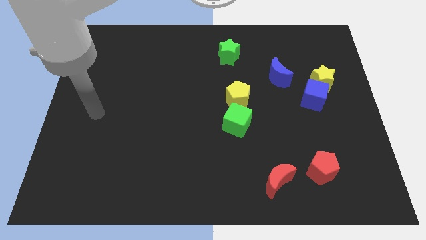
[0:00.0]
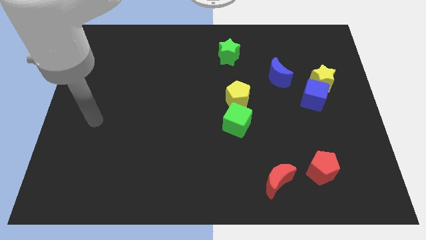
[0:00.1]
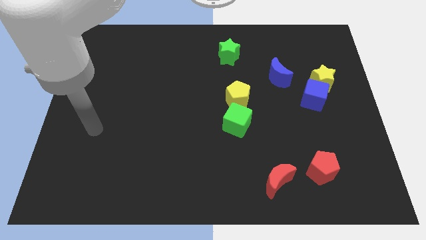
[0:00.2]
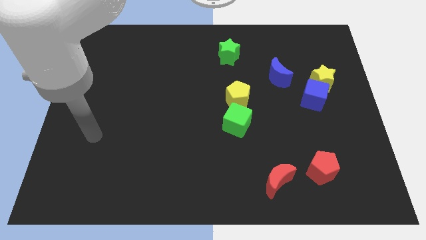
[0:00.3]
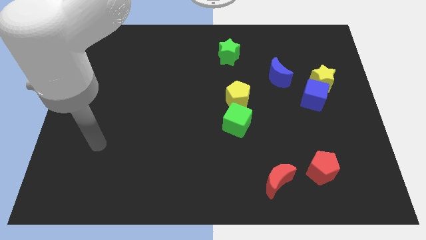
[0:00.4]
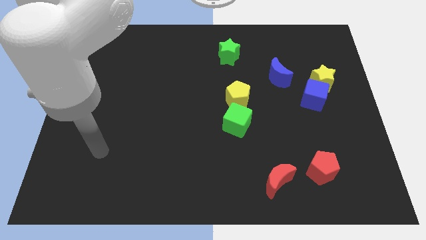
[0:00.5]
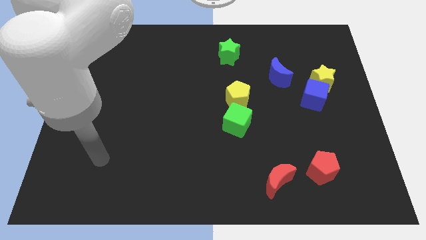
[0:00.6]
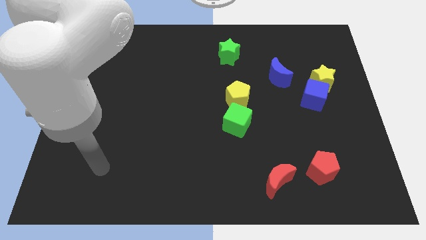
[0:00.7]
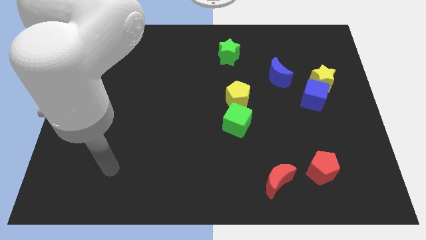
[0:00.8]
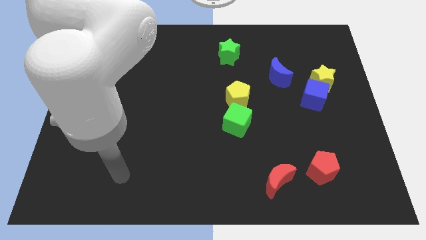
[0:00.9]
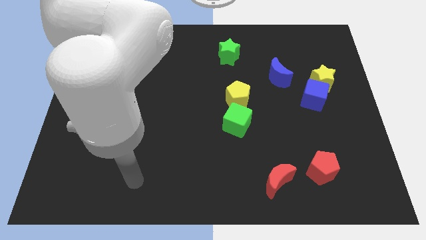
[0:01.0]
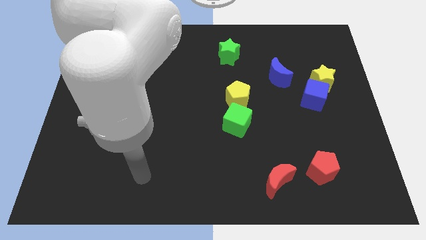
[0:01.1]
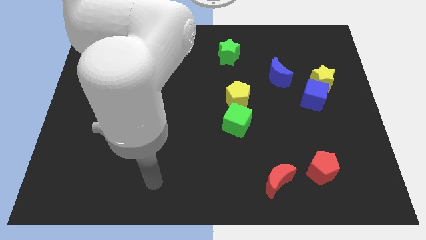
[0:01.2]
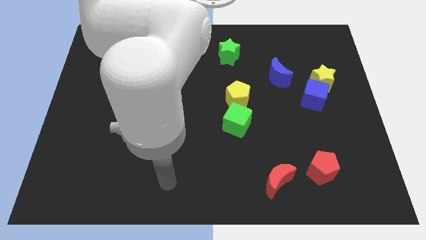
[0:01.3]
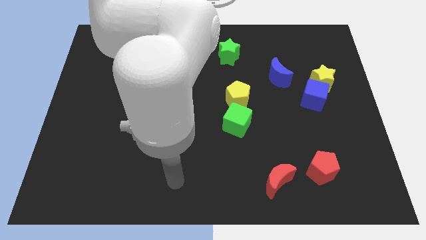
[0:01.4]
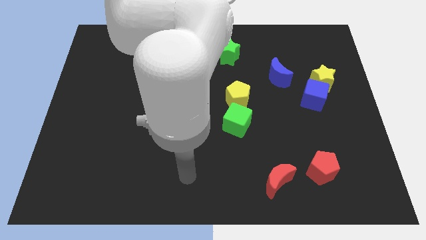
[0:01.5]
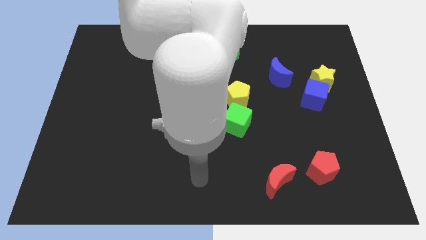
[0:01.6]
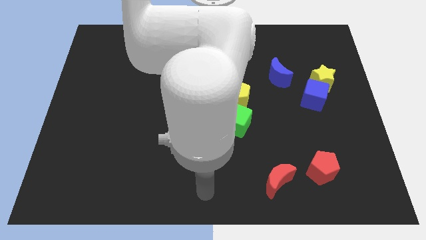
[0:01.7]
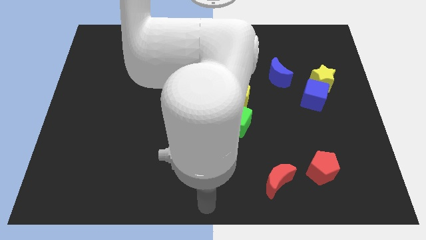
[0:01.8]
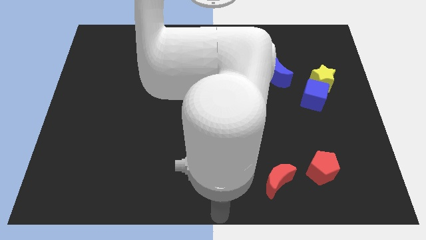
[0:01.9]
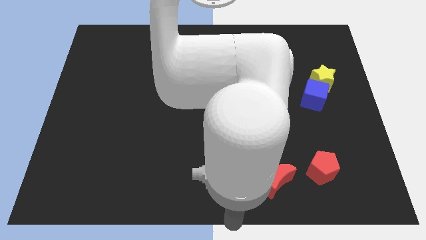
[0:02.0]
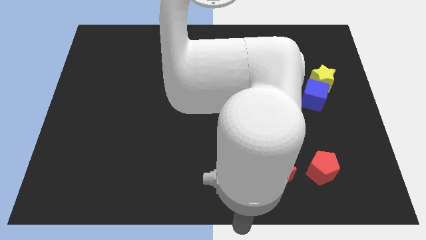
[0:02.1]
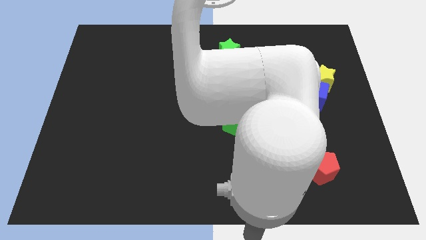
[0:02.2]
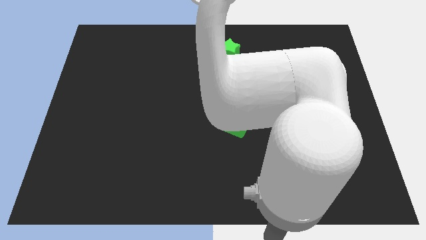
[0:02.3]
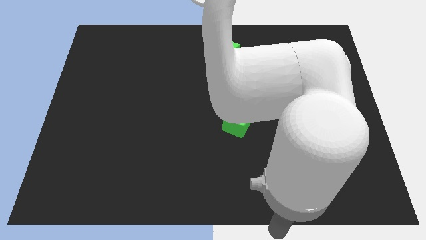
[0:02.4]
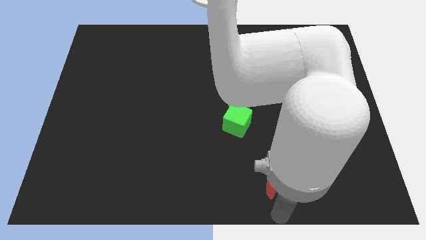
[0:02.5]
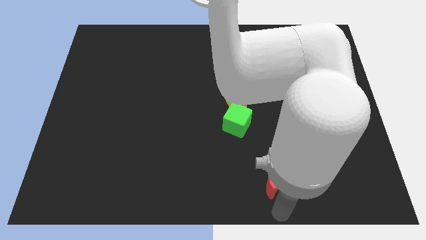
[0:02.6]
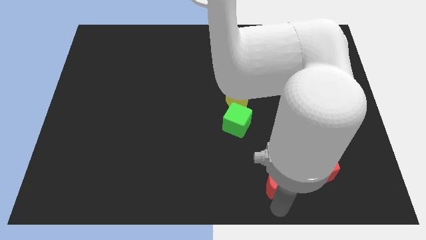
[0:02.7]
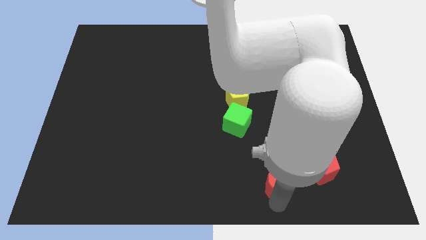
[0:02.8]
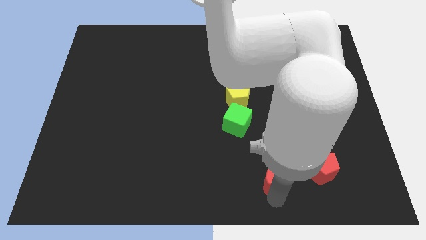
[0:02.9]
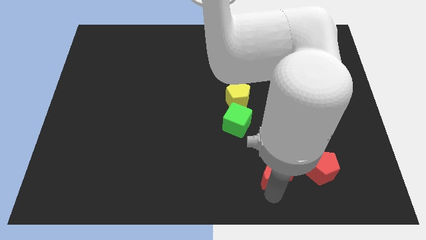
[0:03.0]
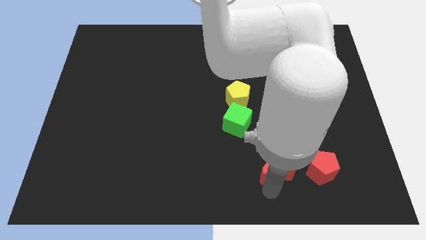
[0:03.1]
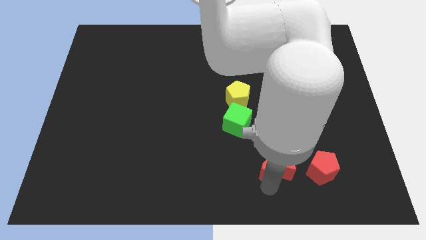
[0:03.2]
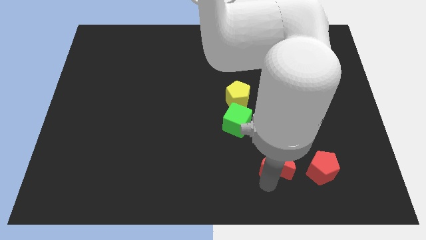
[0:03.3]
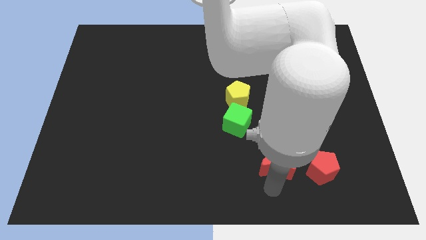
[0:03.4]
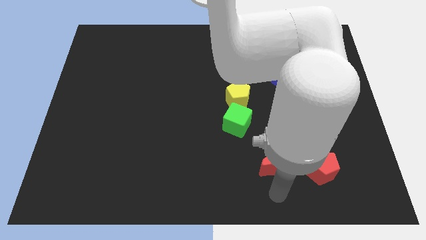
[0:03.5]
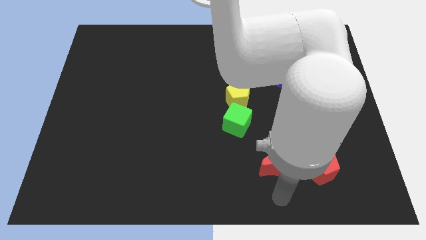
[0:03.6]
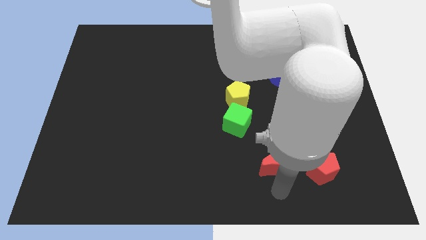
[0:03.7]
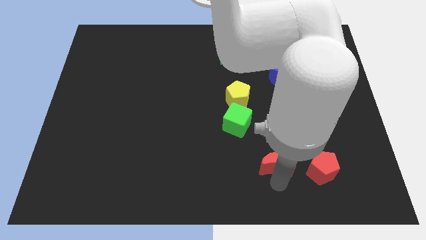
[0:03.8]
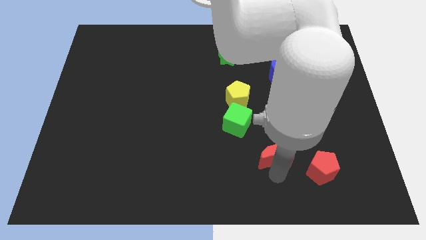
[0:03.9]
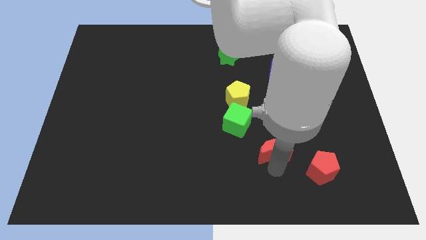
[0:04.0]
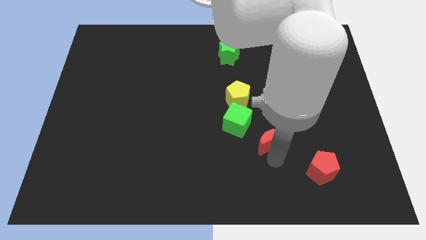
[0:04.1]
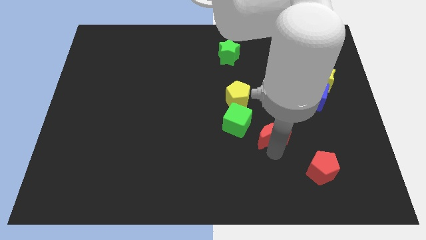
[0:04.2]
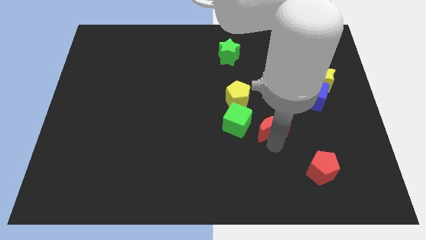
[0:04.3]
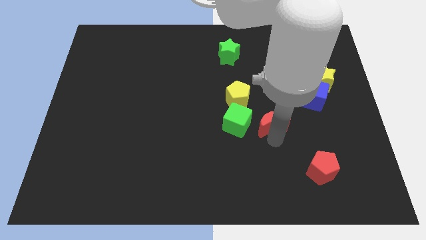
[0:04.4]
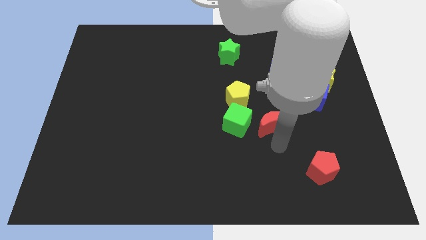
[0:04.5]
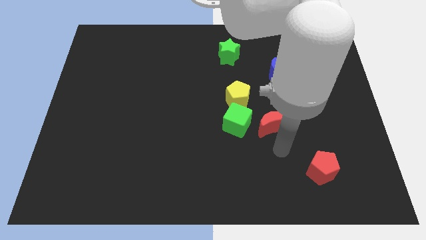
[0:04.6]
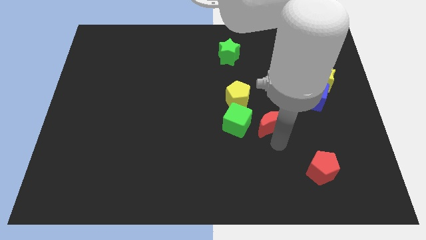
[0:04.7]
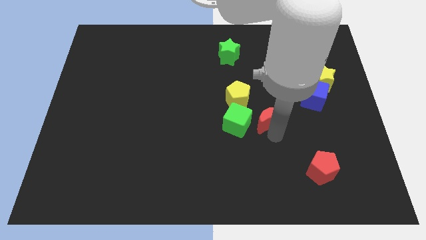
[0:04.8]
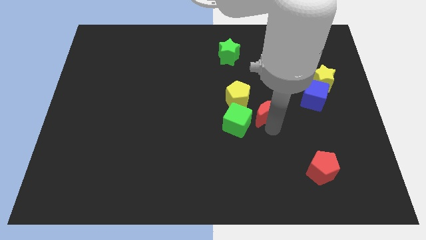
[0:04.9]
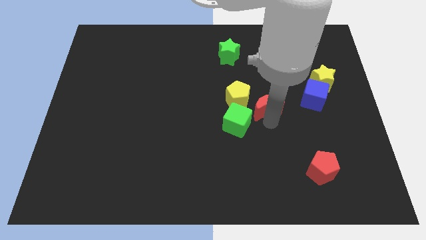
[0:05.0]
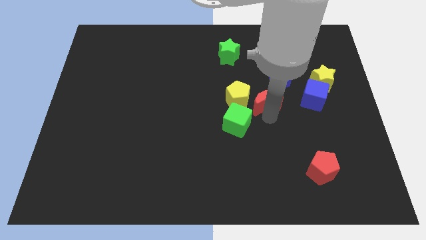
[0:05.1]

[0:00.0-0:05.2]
move the red moon up

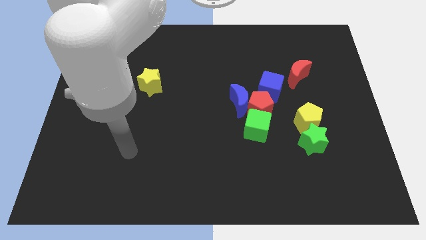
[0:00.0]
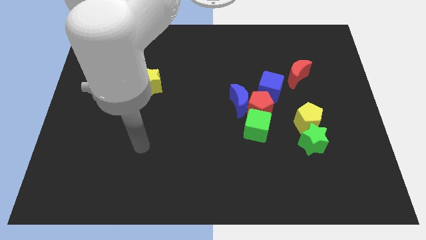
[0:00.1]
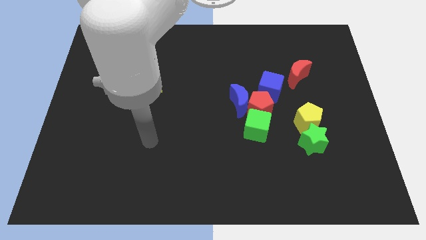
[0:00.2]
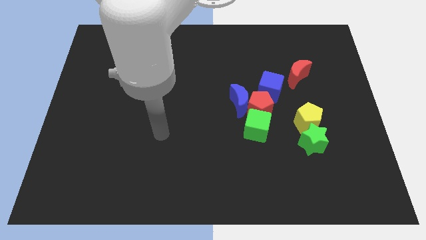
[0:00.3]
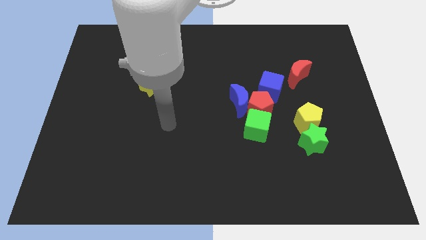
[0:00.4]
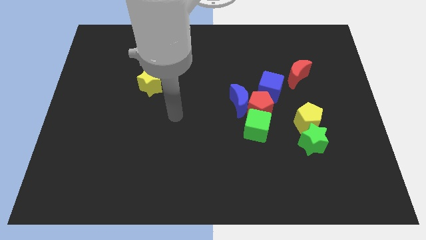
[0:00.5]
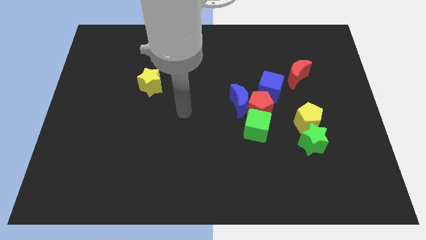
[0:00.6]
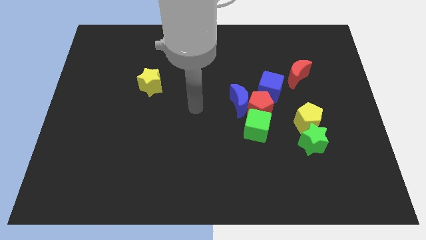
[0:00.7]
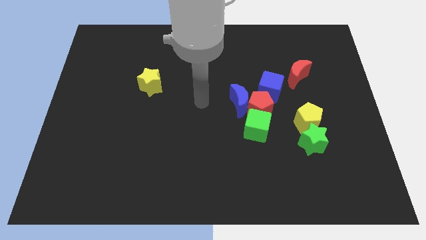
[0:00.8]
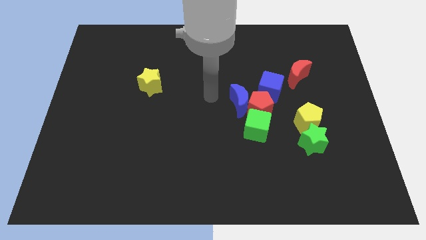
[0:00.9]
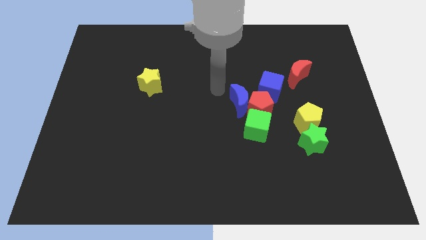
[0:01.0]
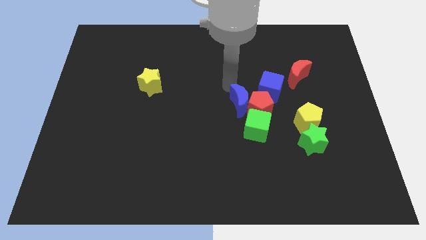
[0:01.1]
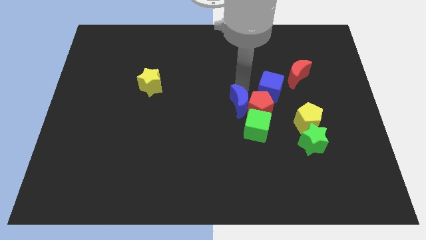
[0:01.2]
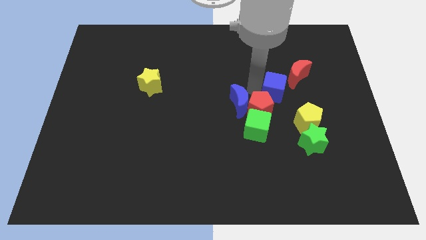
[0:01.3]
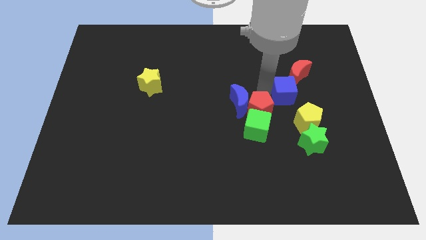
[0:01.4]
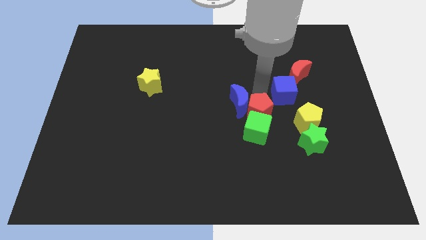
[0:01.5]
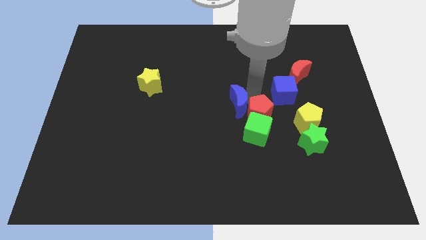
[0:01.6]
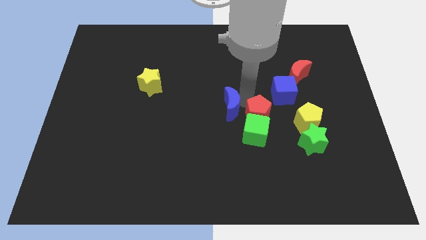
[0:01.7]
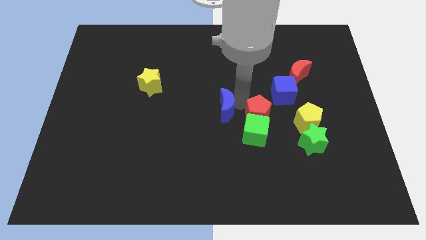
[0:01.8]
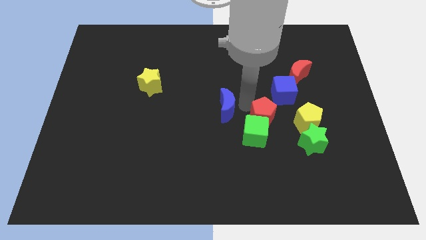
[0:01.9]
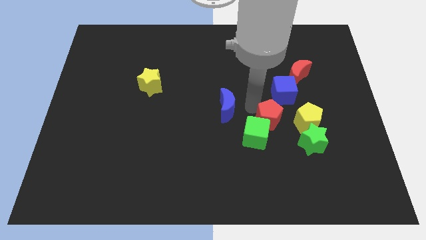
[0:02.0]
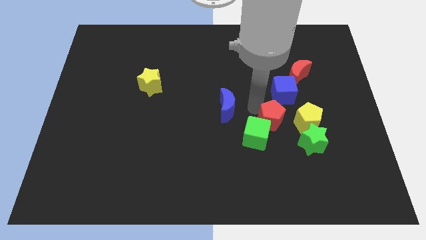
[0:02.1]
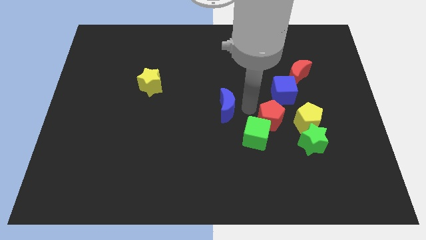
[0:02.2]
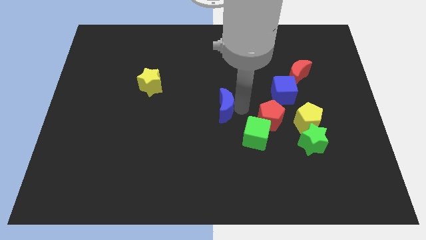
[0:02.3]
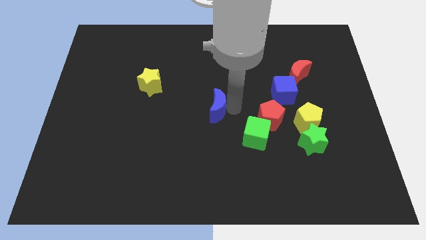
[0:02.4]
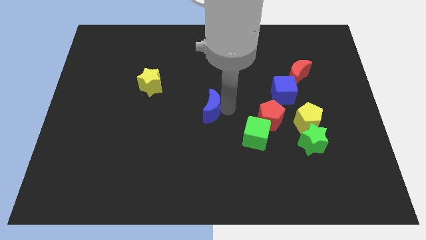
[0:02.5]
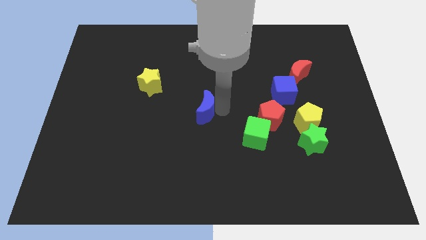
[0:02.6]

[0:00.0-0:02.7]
slide the blue moon to the left a little

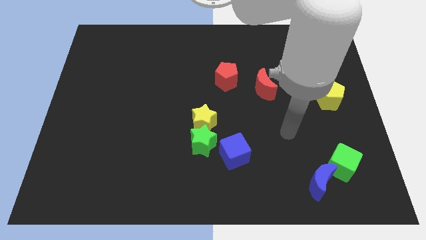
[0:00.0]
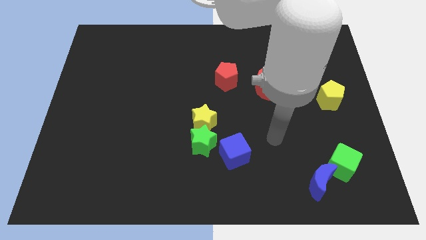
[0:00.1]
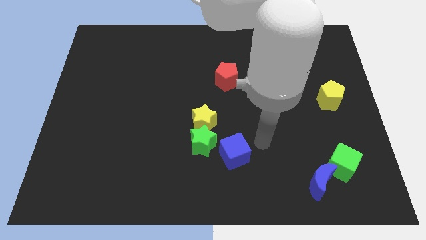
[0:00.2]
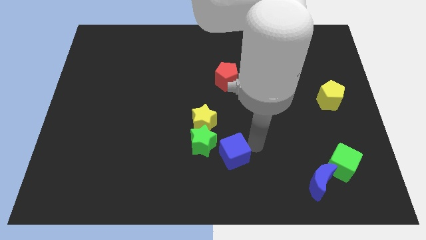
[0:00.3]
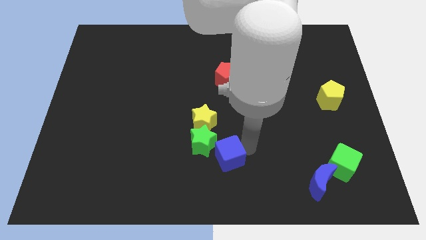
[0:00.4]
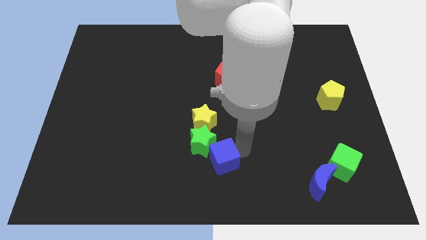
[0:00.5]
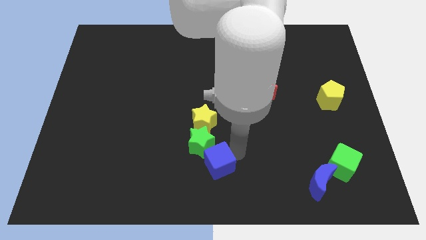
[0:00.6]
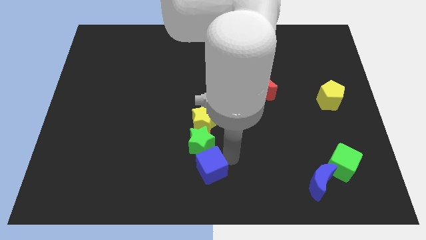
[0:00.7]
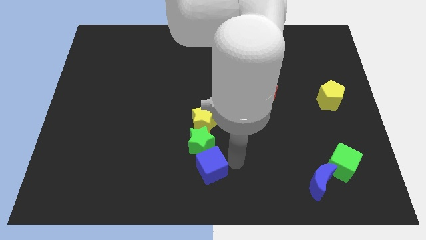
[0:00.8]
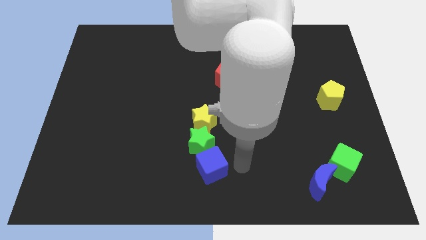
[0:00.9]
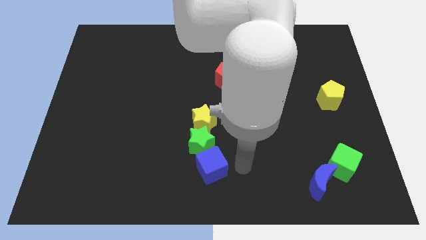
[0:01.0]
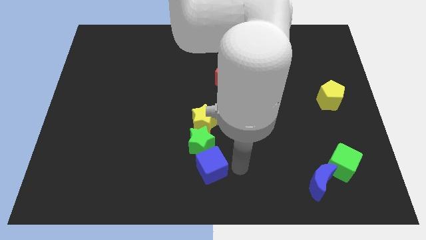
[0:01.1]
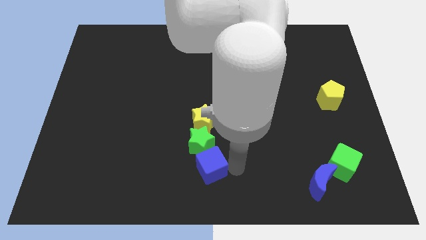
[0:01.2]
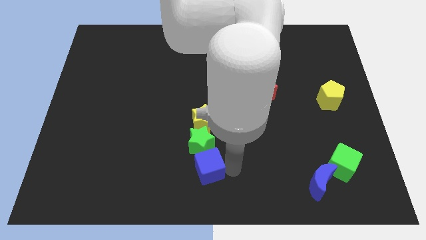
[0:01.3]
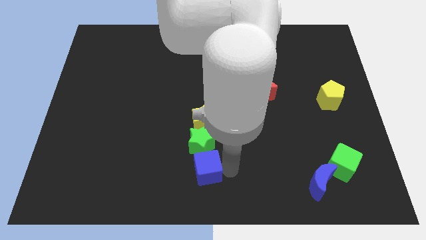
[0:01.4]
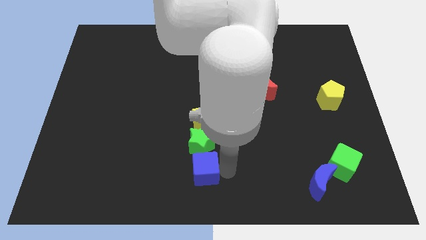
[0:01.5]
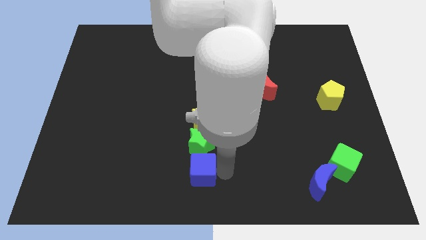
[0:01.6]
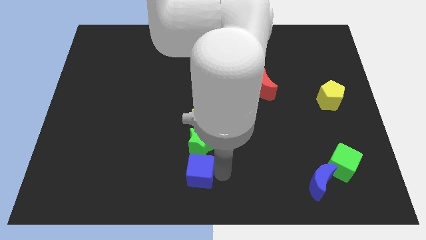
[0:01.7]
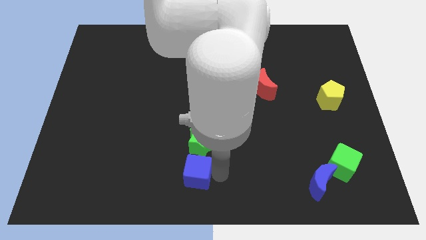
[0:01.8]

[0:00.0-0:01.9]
push the blue cube to the left a bit
